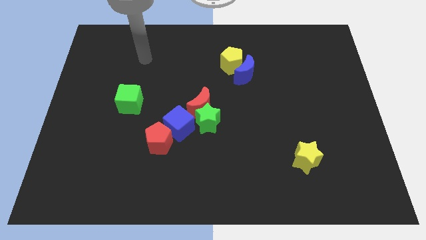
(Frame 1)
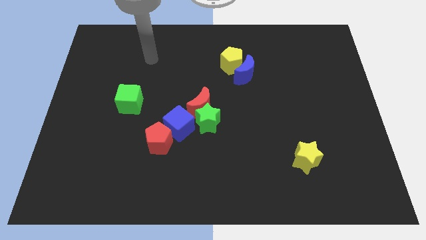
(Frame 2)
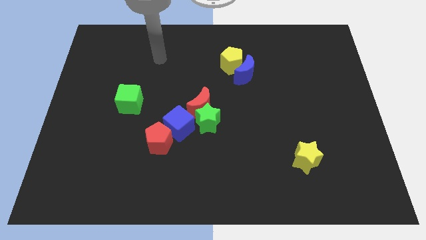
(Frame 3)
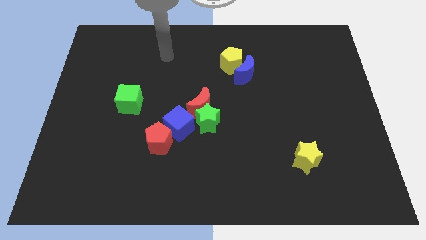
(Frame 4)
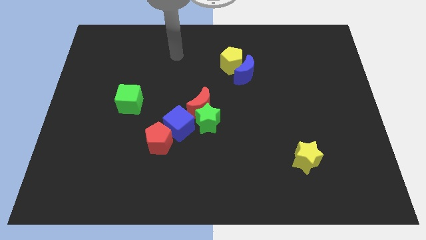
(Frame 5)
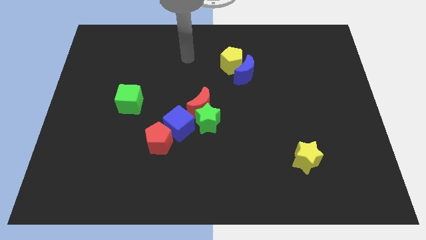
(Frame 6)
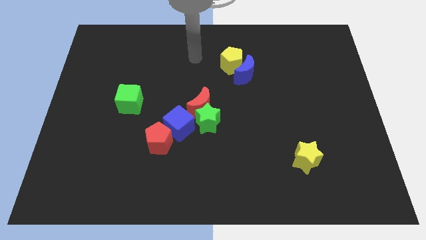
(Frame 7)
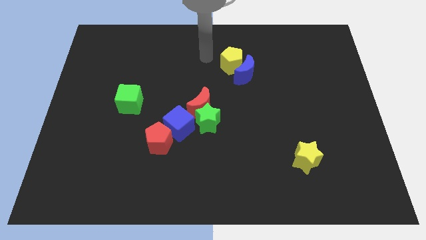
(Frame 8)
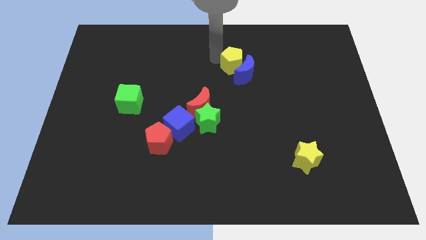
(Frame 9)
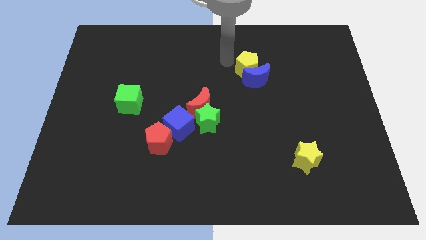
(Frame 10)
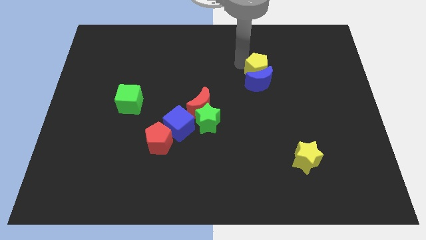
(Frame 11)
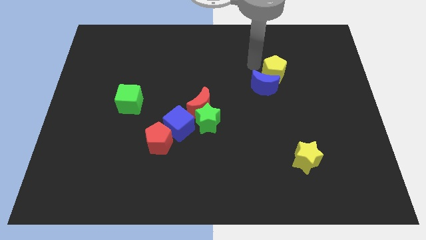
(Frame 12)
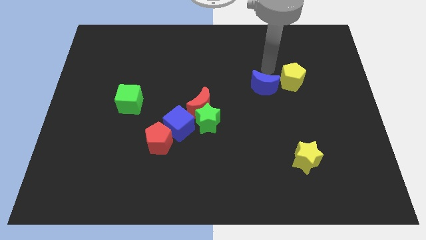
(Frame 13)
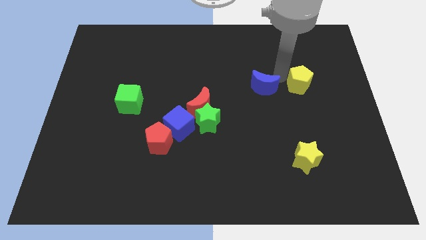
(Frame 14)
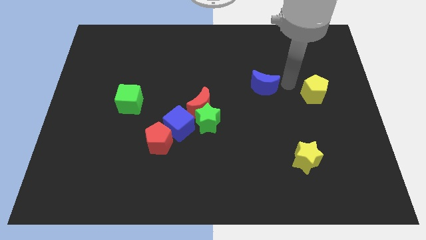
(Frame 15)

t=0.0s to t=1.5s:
pull the blue moon apart from the yellow pentagon

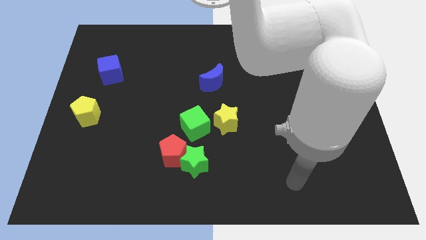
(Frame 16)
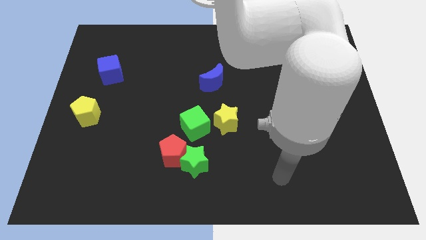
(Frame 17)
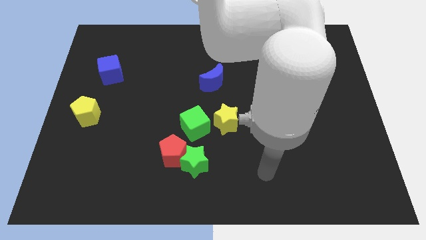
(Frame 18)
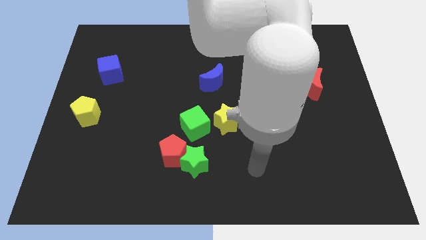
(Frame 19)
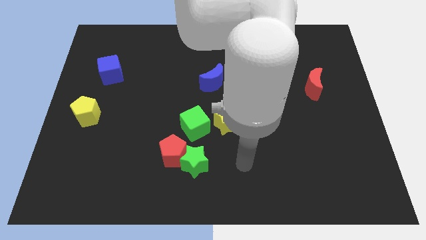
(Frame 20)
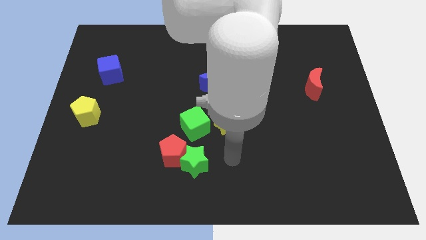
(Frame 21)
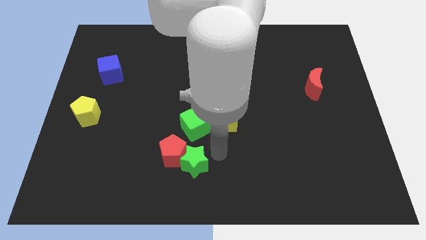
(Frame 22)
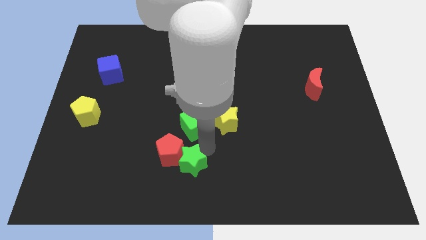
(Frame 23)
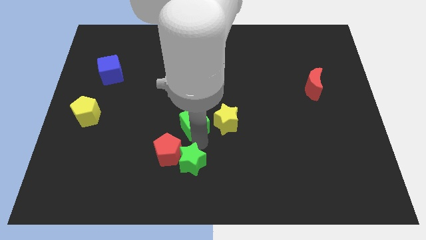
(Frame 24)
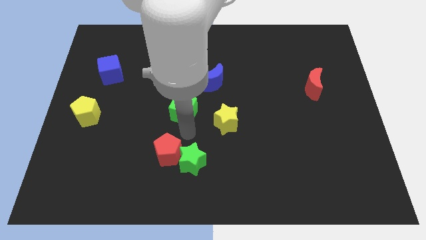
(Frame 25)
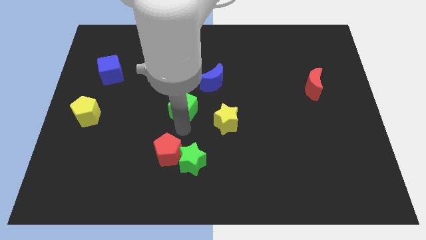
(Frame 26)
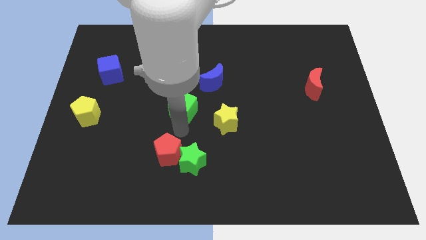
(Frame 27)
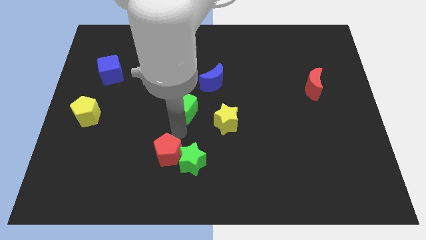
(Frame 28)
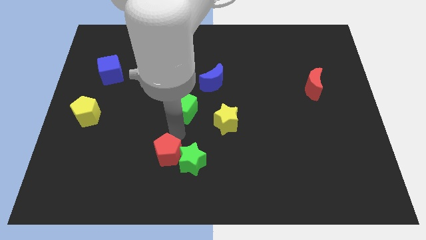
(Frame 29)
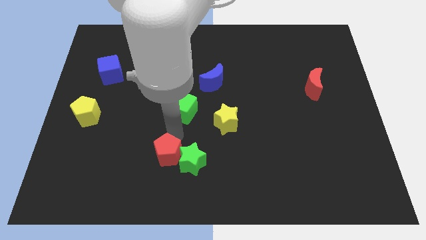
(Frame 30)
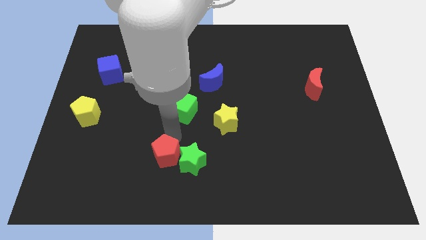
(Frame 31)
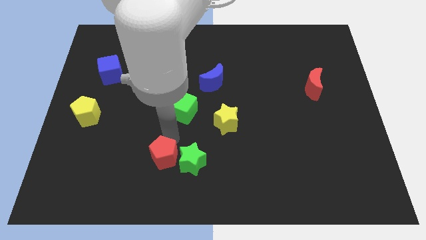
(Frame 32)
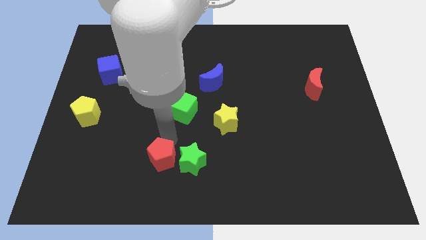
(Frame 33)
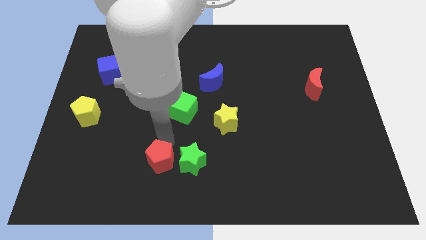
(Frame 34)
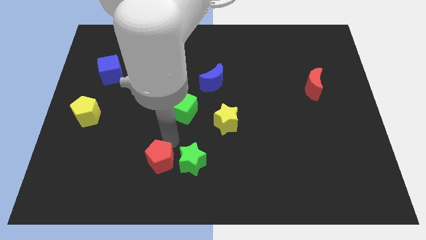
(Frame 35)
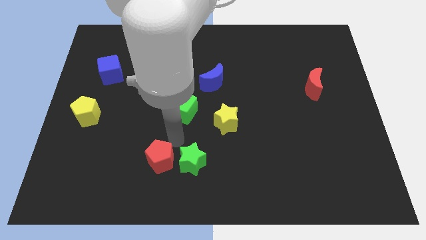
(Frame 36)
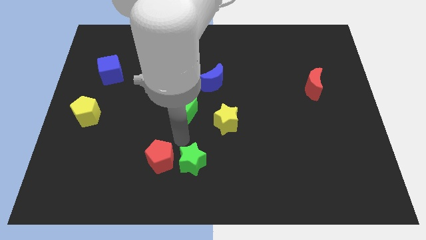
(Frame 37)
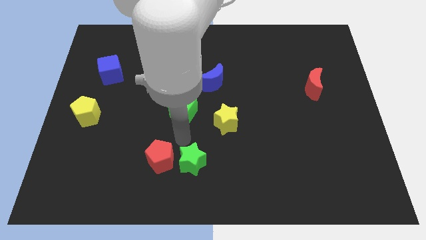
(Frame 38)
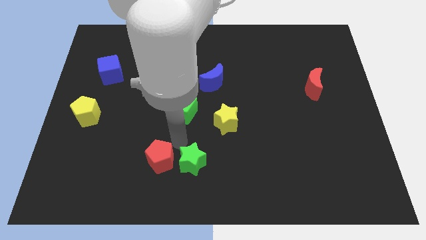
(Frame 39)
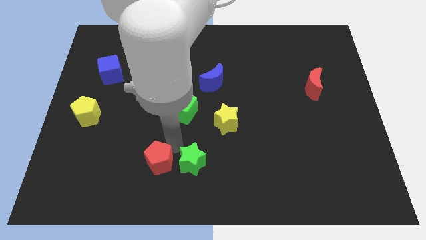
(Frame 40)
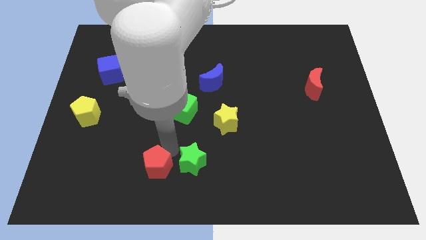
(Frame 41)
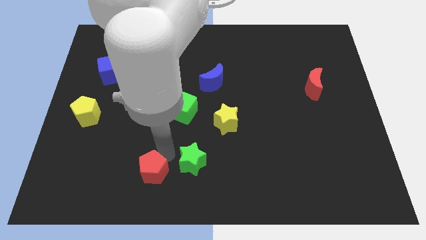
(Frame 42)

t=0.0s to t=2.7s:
pull the red pentagon apart from the green star and green cube

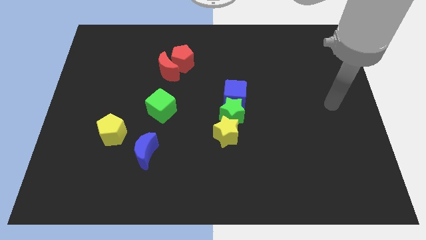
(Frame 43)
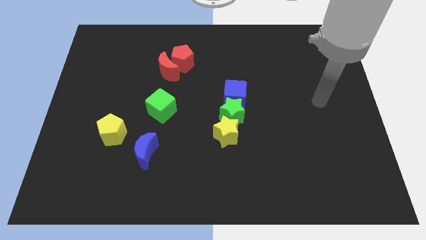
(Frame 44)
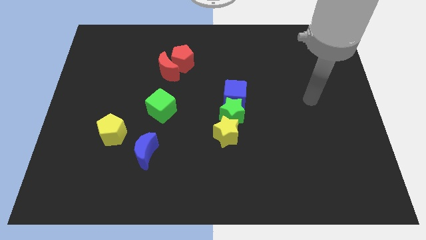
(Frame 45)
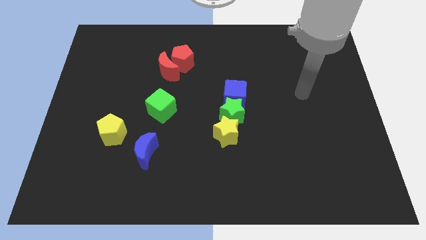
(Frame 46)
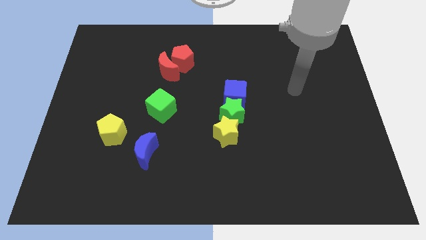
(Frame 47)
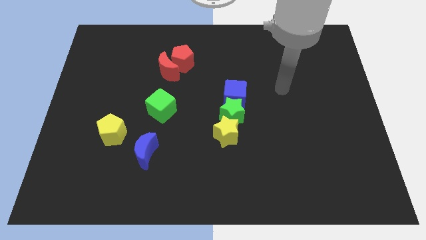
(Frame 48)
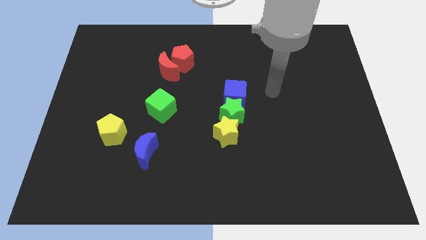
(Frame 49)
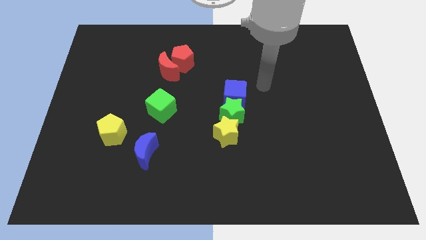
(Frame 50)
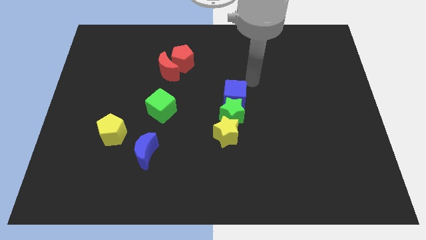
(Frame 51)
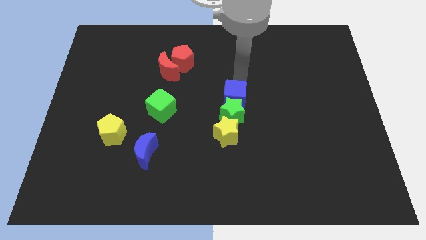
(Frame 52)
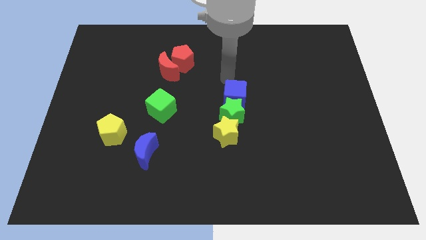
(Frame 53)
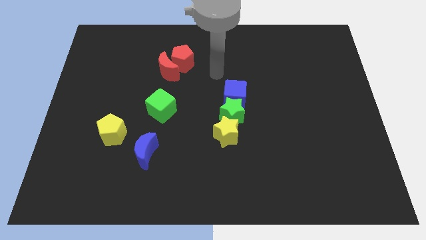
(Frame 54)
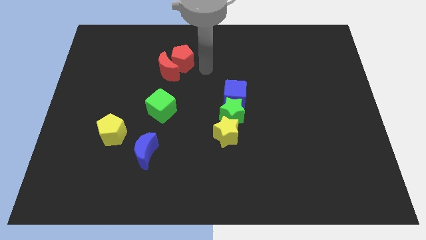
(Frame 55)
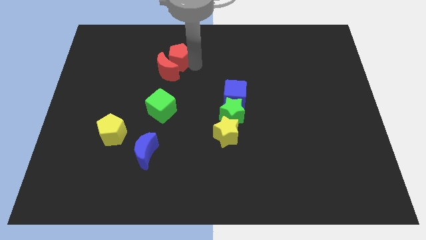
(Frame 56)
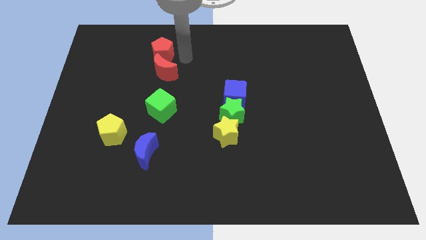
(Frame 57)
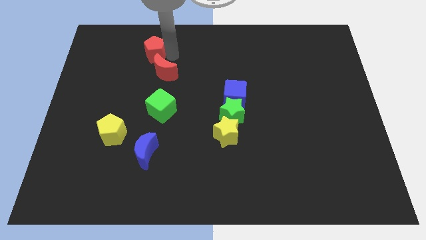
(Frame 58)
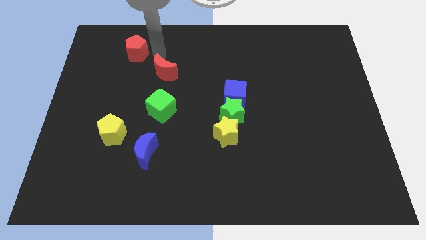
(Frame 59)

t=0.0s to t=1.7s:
move the red moon away from the red pentagon

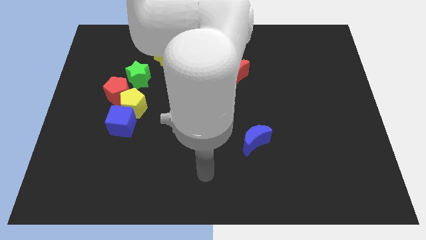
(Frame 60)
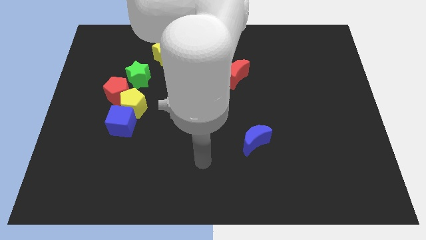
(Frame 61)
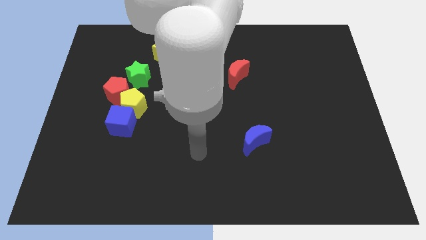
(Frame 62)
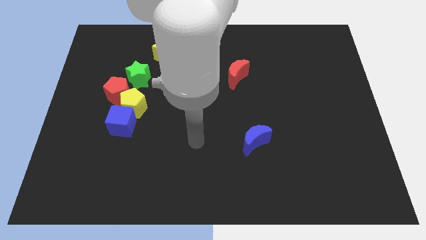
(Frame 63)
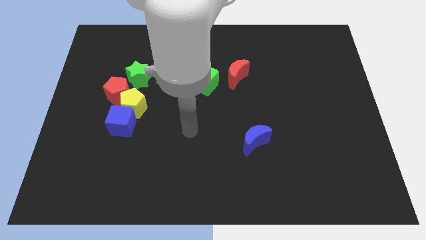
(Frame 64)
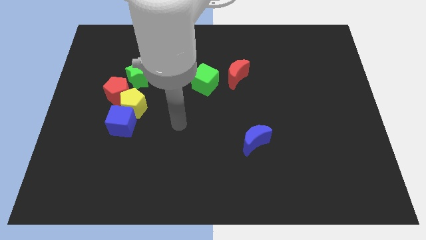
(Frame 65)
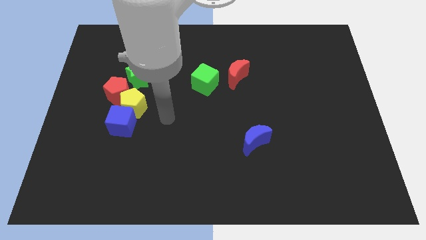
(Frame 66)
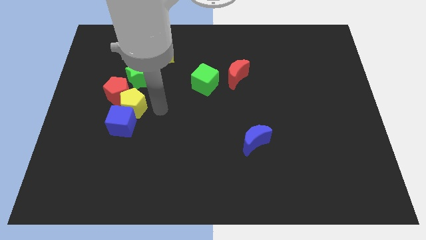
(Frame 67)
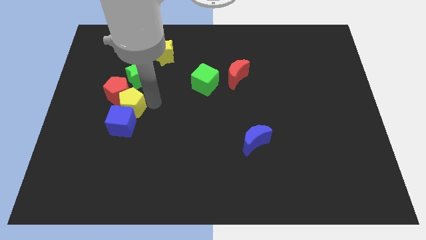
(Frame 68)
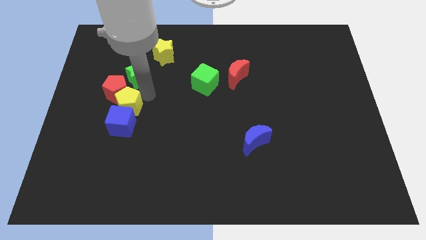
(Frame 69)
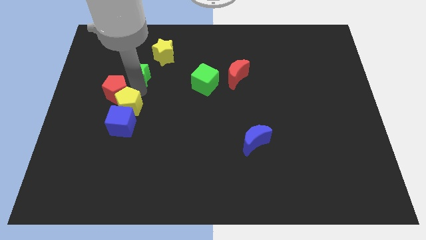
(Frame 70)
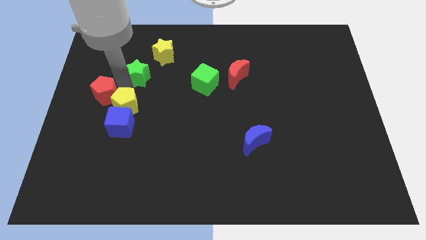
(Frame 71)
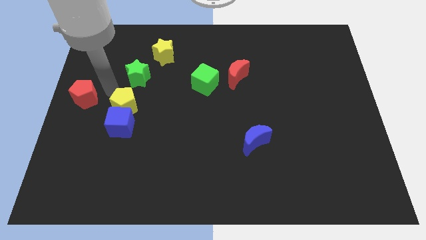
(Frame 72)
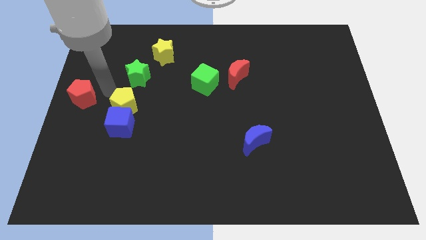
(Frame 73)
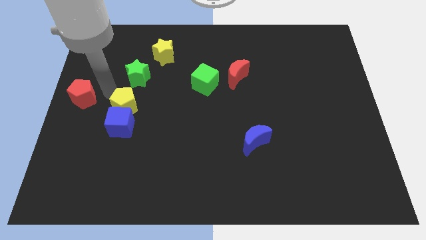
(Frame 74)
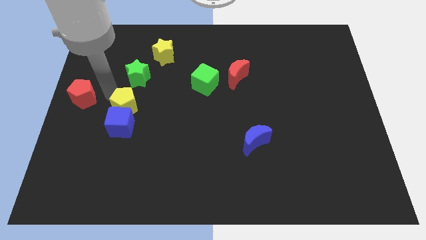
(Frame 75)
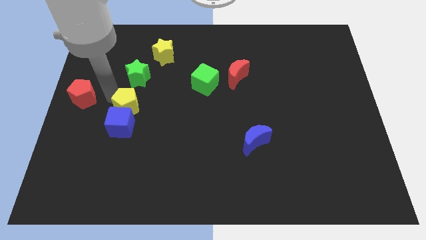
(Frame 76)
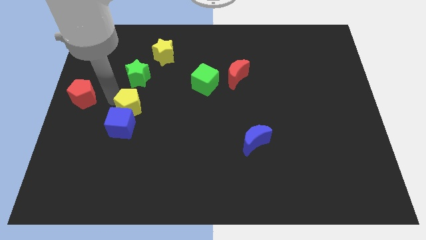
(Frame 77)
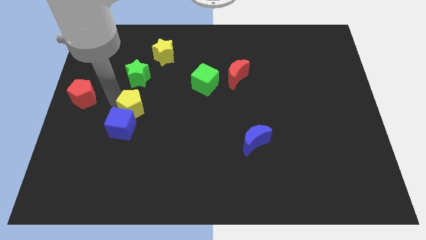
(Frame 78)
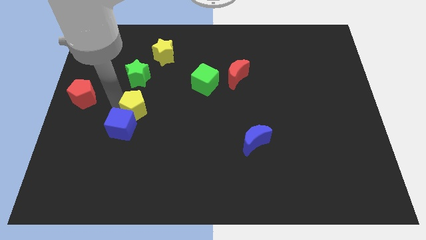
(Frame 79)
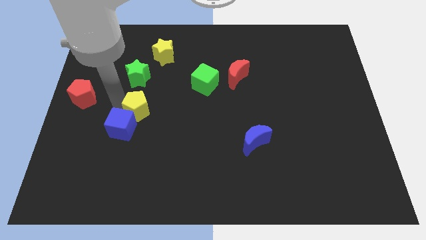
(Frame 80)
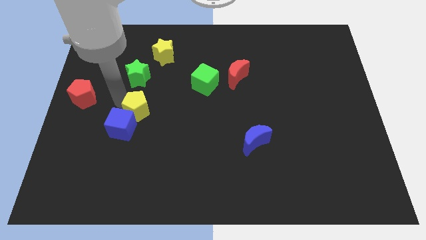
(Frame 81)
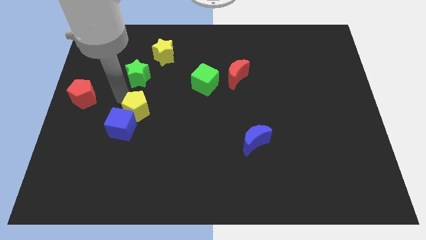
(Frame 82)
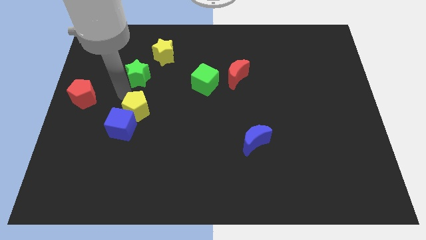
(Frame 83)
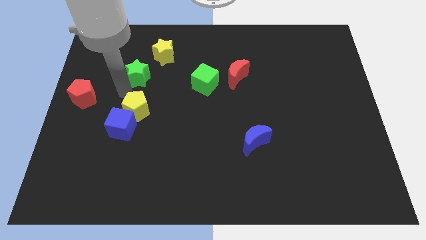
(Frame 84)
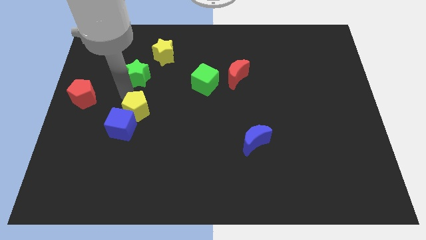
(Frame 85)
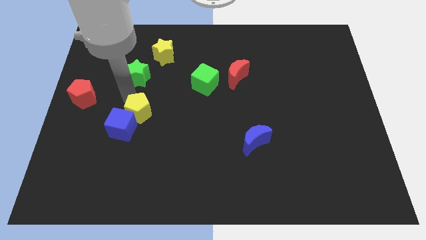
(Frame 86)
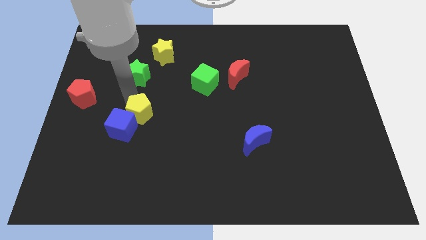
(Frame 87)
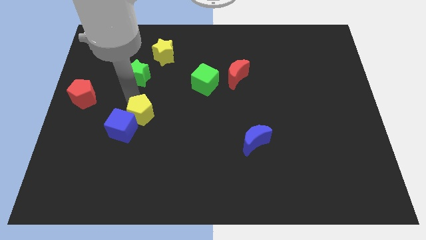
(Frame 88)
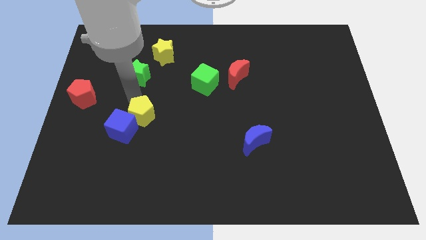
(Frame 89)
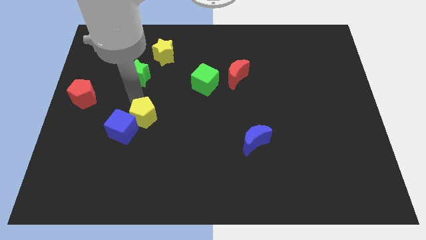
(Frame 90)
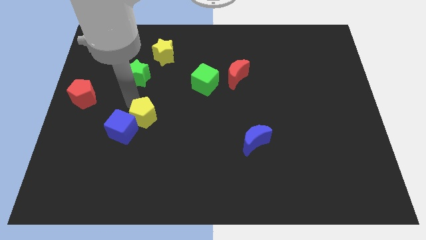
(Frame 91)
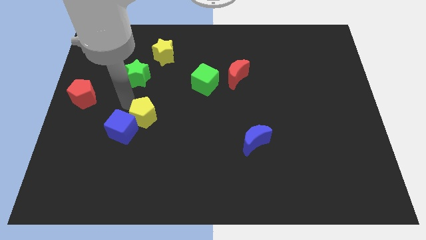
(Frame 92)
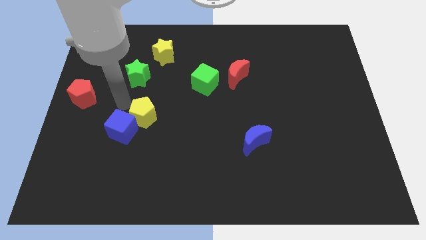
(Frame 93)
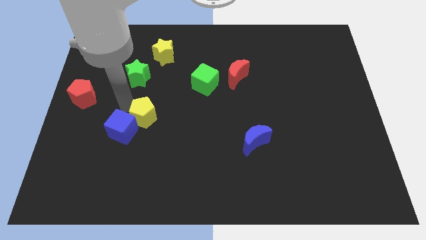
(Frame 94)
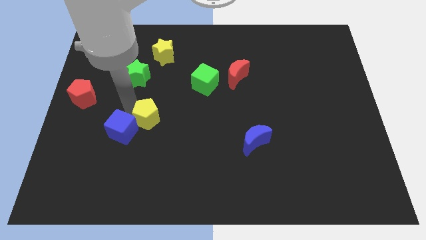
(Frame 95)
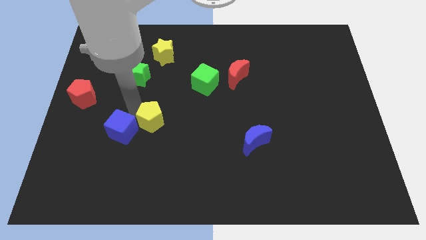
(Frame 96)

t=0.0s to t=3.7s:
separate the yellow pentagon from the blue cube, red pentagon, and green star
